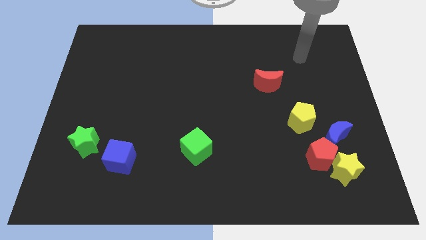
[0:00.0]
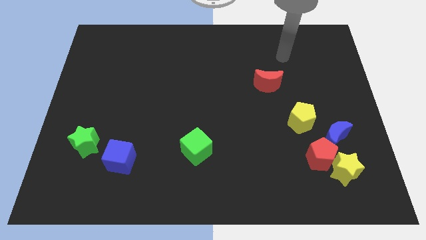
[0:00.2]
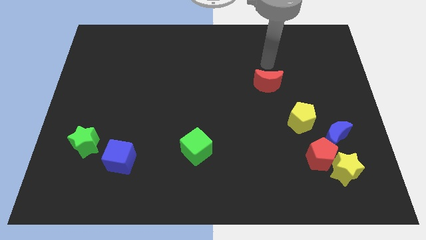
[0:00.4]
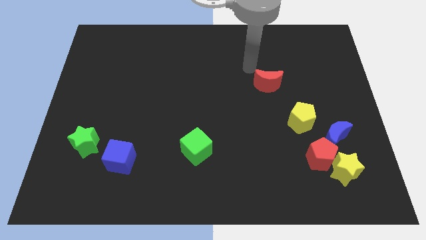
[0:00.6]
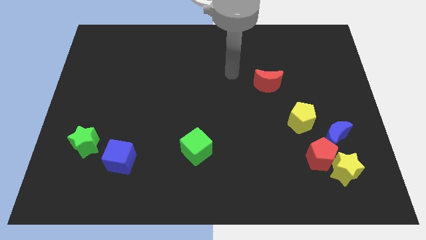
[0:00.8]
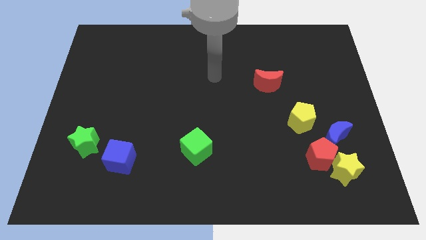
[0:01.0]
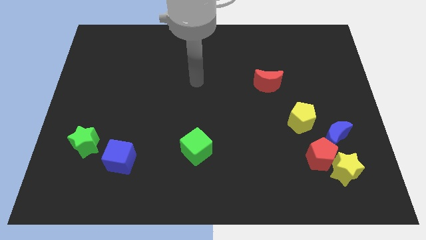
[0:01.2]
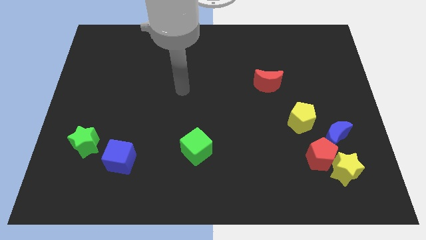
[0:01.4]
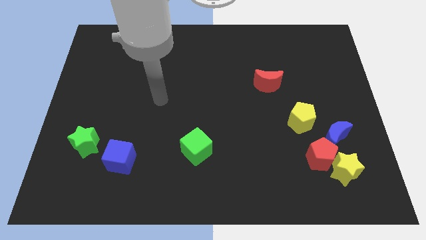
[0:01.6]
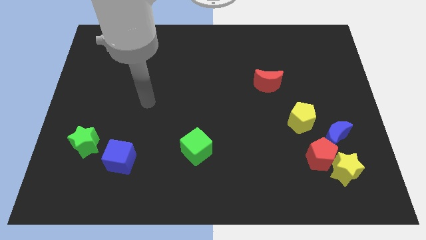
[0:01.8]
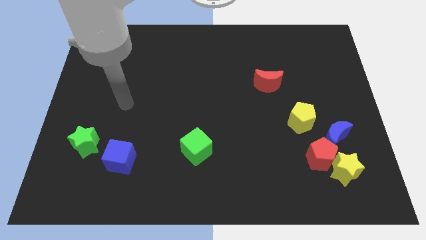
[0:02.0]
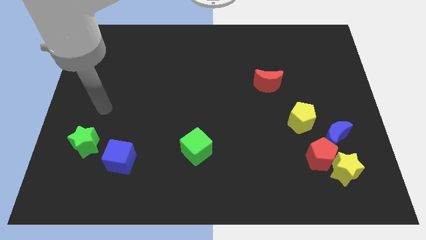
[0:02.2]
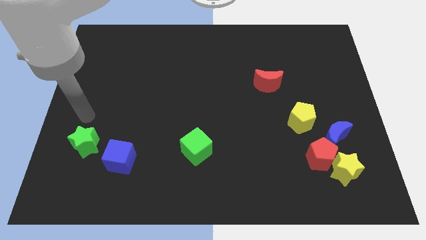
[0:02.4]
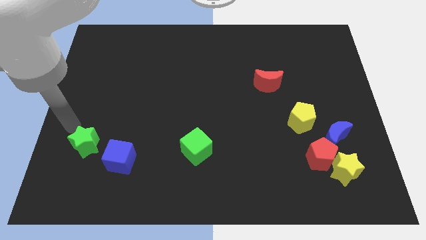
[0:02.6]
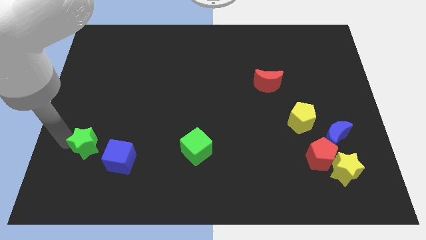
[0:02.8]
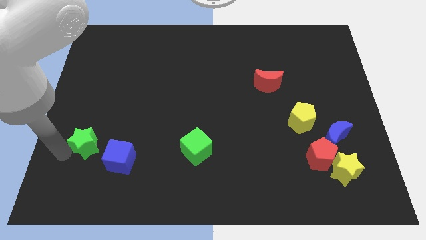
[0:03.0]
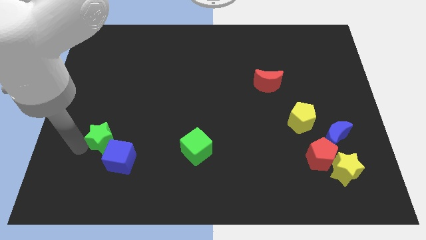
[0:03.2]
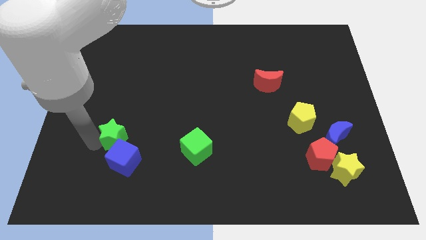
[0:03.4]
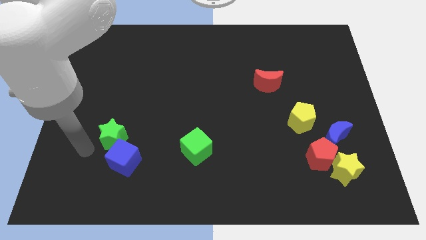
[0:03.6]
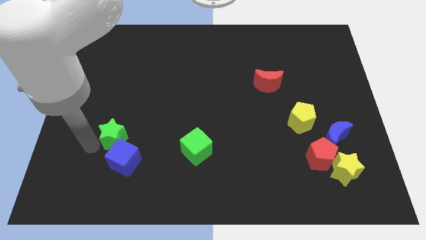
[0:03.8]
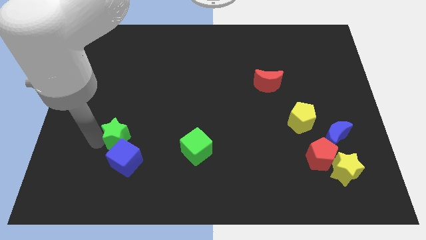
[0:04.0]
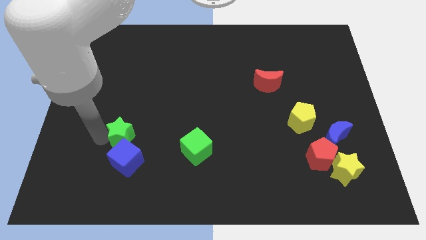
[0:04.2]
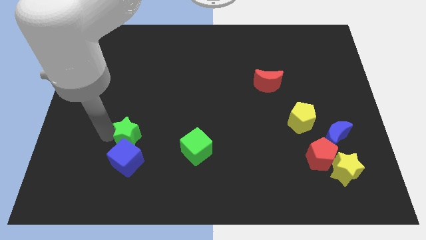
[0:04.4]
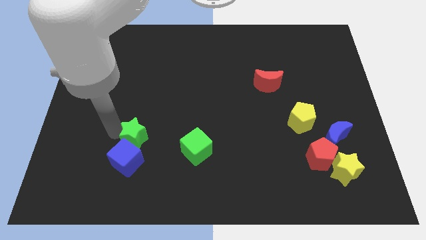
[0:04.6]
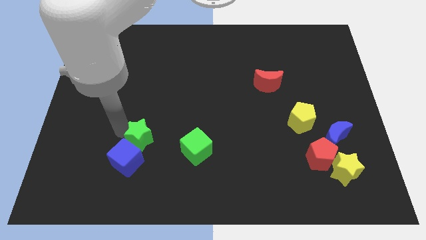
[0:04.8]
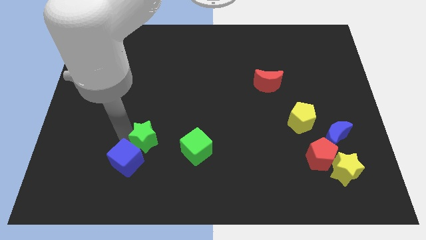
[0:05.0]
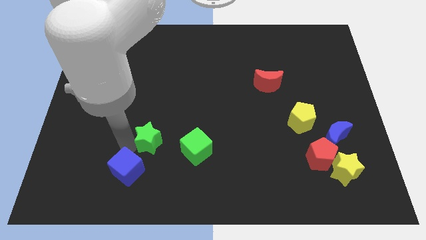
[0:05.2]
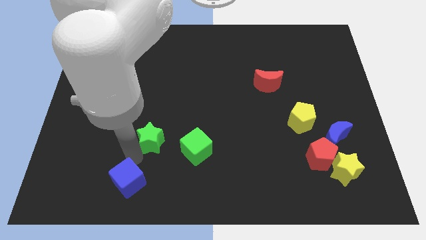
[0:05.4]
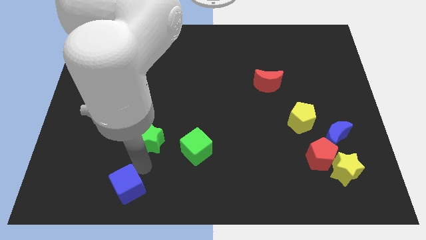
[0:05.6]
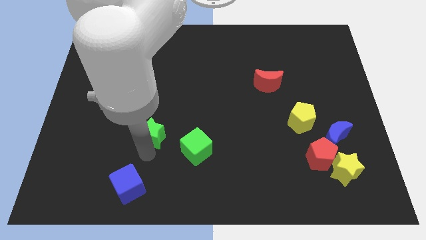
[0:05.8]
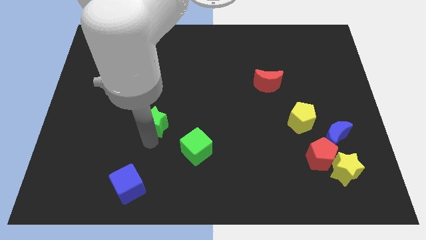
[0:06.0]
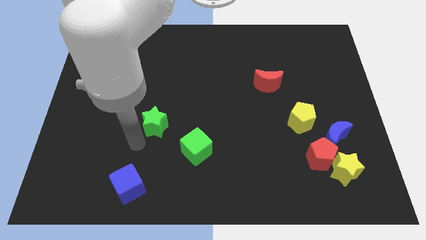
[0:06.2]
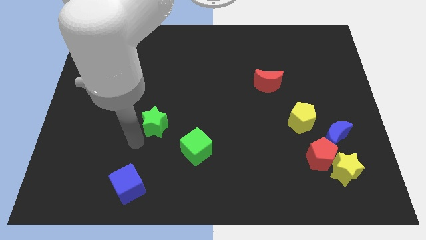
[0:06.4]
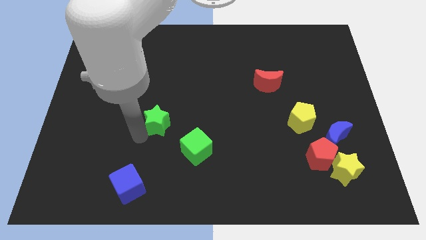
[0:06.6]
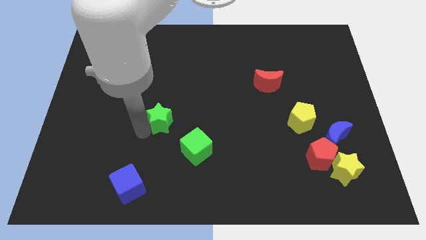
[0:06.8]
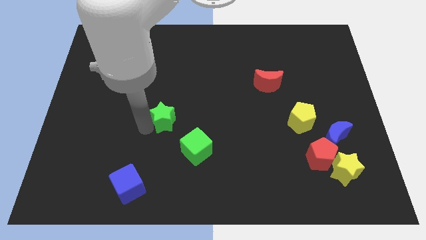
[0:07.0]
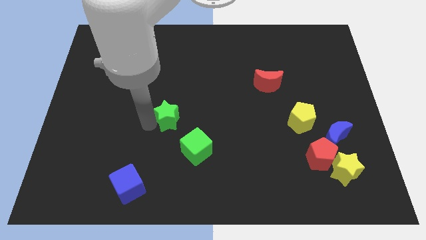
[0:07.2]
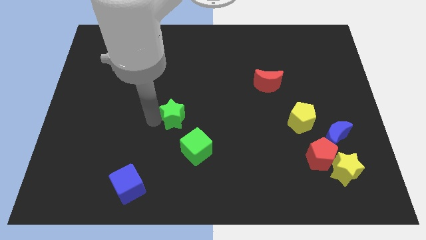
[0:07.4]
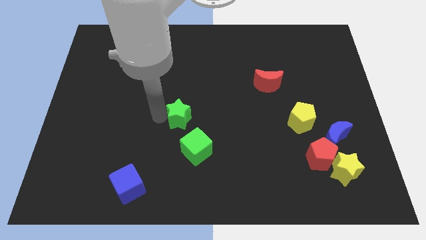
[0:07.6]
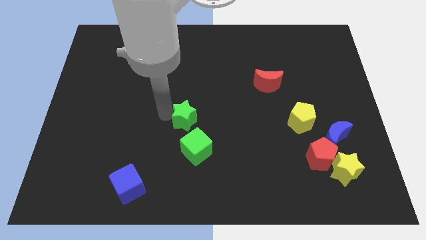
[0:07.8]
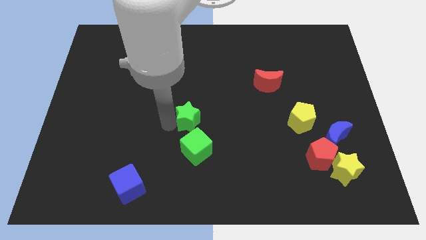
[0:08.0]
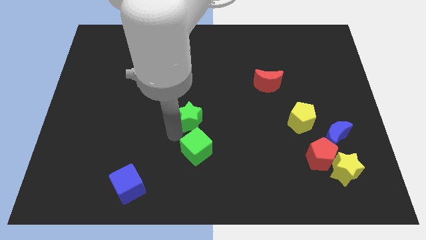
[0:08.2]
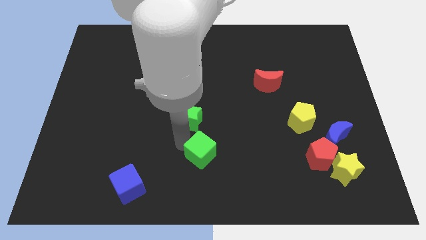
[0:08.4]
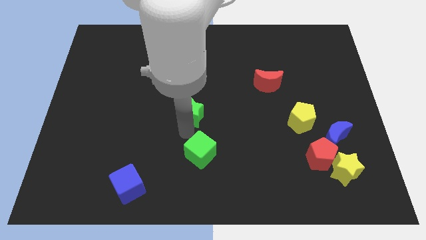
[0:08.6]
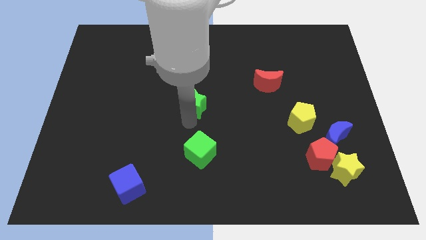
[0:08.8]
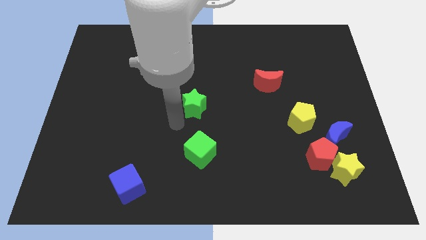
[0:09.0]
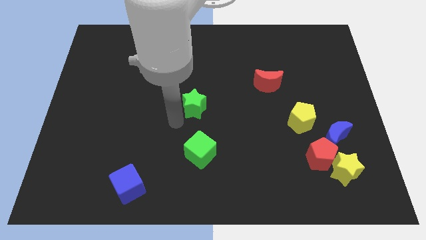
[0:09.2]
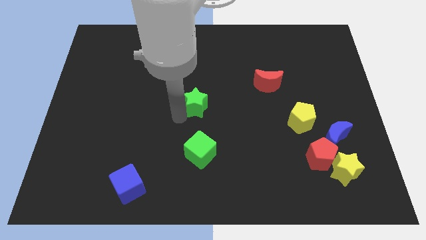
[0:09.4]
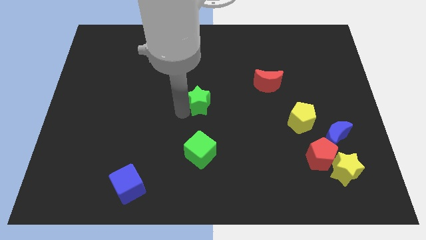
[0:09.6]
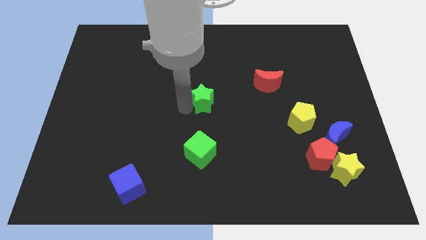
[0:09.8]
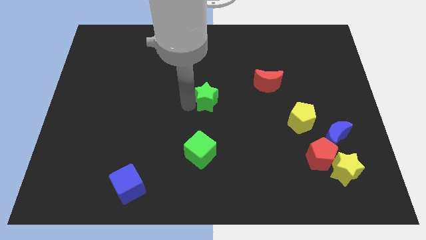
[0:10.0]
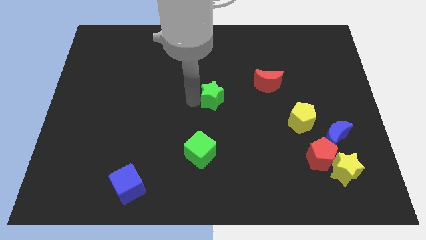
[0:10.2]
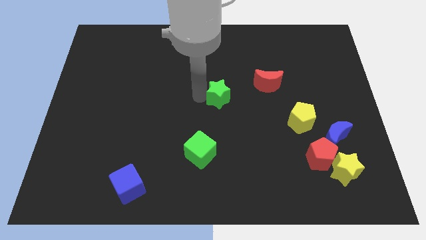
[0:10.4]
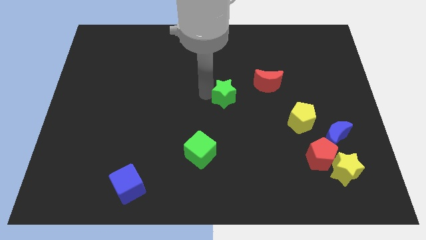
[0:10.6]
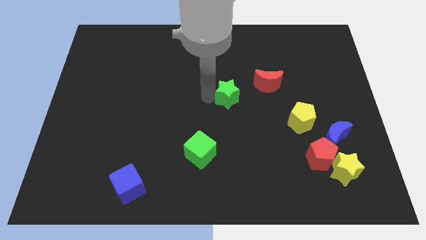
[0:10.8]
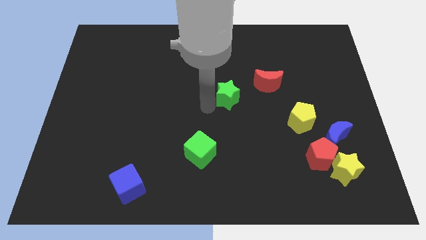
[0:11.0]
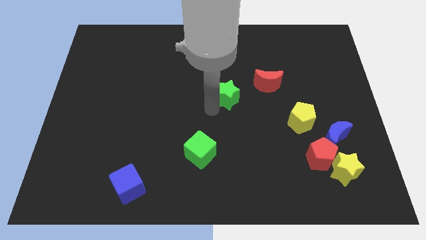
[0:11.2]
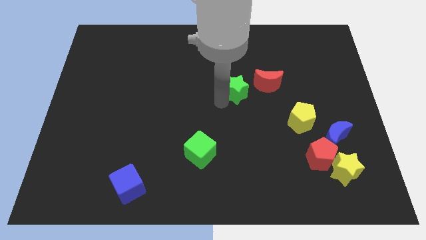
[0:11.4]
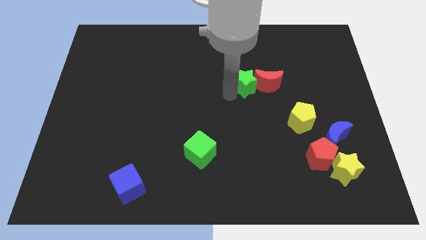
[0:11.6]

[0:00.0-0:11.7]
put the green star towards the red moon

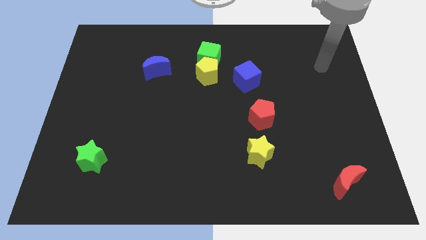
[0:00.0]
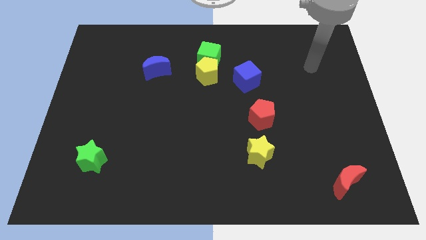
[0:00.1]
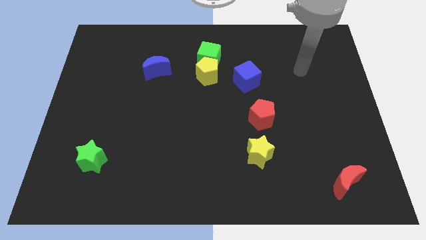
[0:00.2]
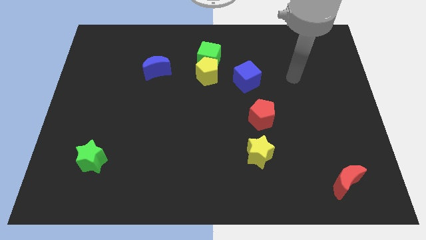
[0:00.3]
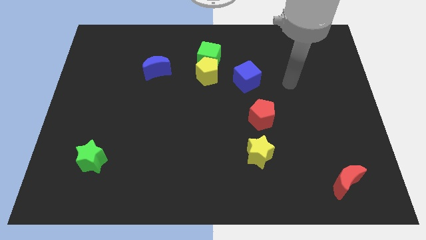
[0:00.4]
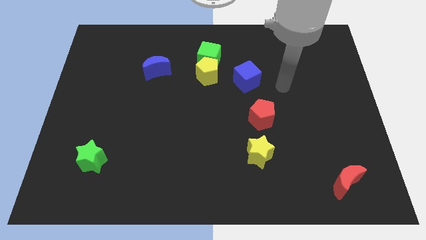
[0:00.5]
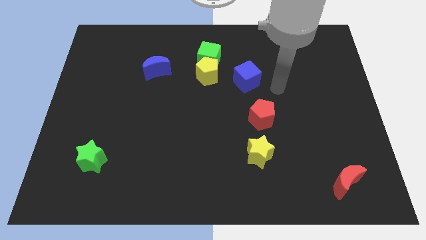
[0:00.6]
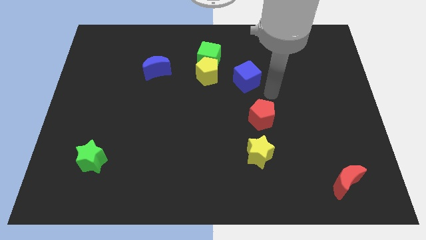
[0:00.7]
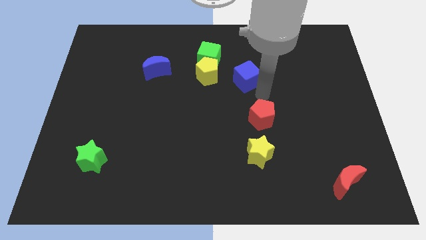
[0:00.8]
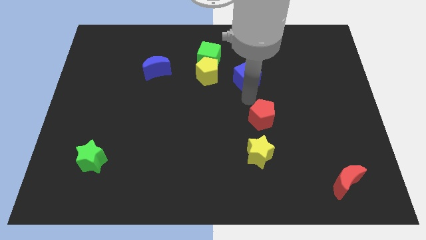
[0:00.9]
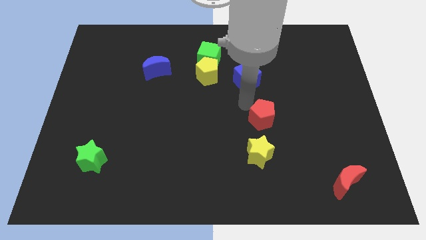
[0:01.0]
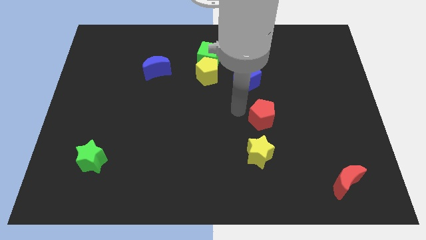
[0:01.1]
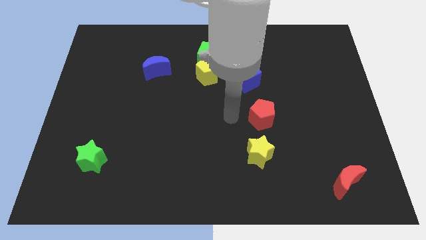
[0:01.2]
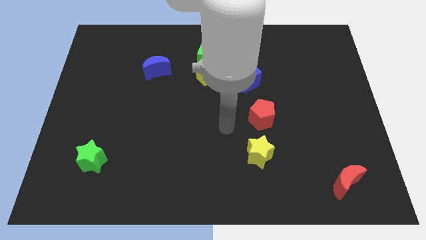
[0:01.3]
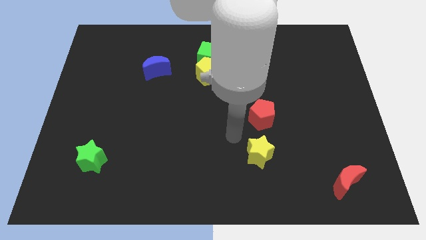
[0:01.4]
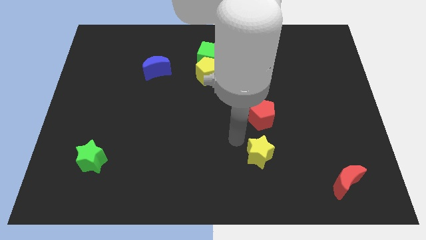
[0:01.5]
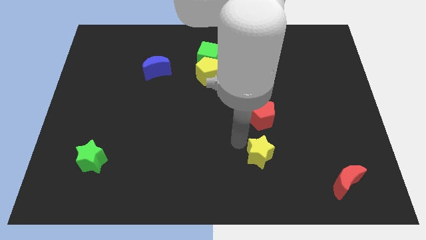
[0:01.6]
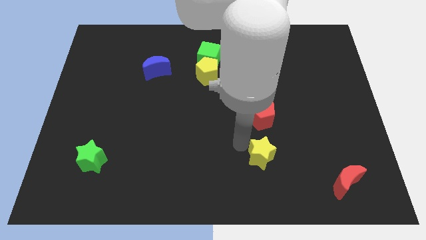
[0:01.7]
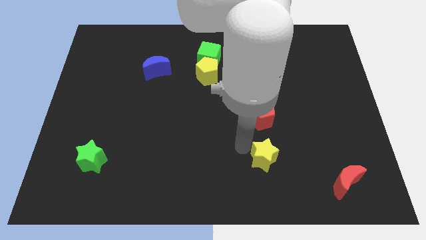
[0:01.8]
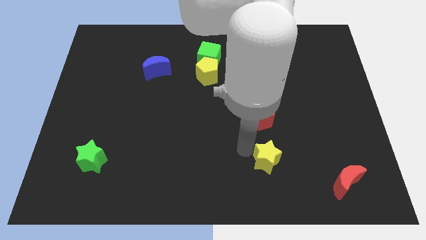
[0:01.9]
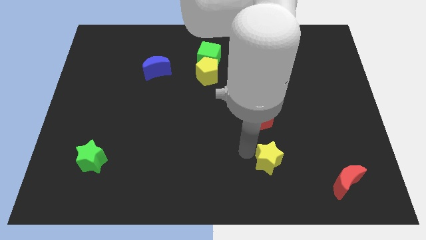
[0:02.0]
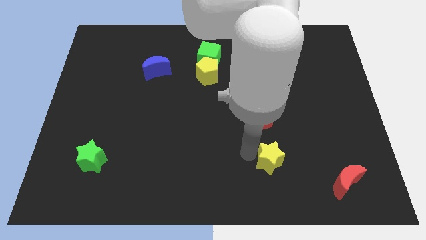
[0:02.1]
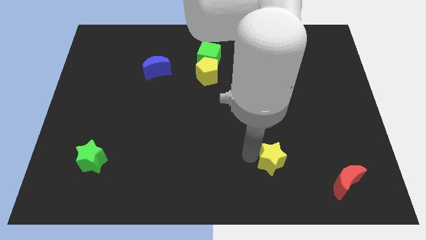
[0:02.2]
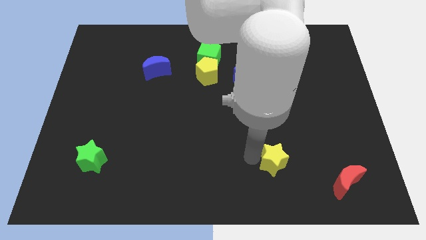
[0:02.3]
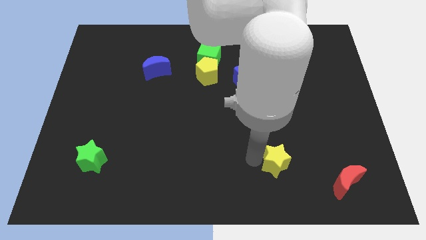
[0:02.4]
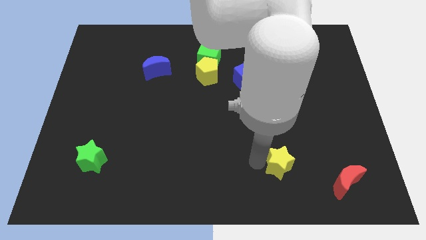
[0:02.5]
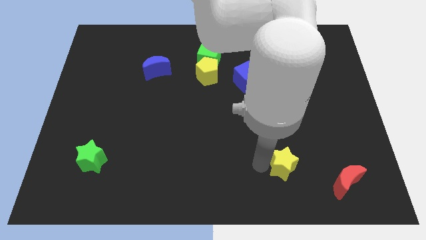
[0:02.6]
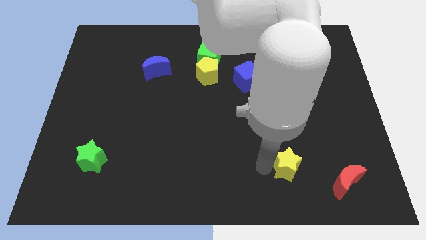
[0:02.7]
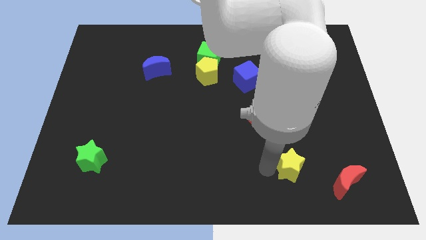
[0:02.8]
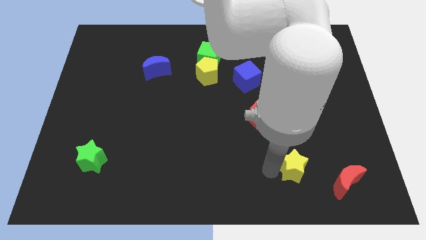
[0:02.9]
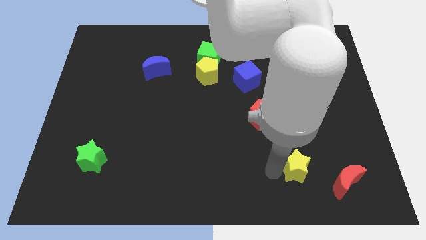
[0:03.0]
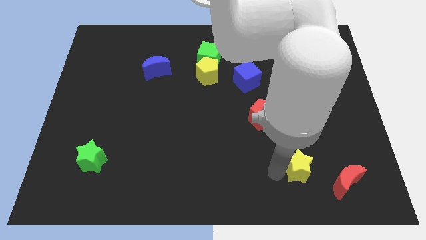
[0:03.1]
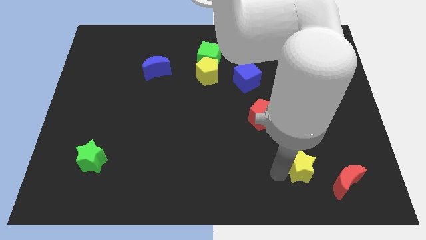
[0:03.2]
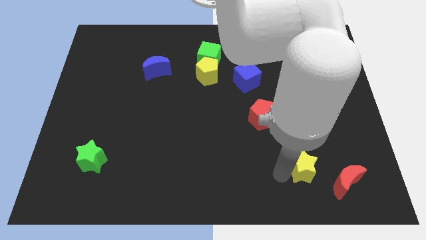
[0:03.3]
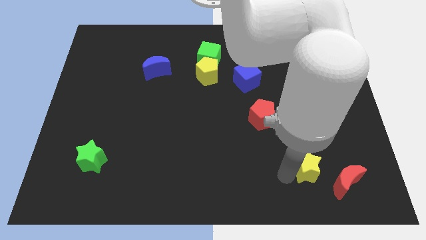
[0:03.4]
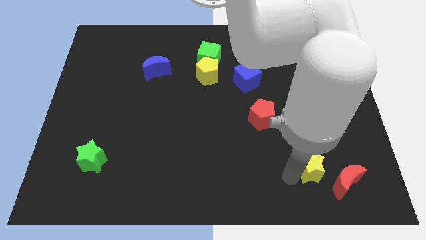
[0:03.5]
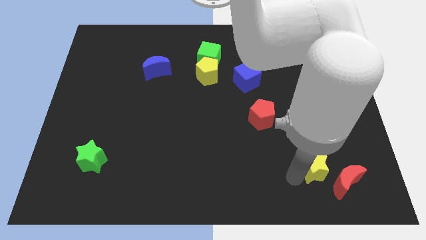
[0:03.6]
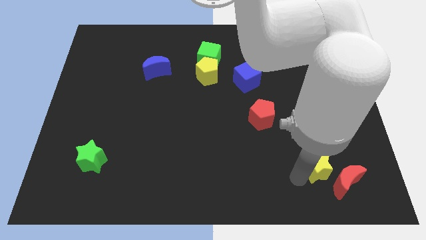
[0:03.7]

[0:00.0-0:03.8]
move the yellow star to the red moon
